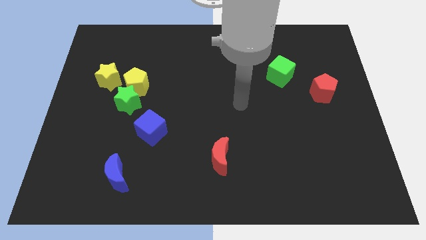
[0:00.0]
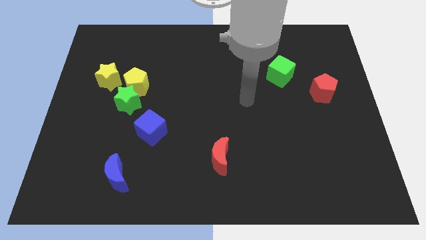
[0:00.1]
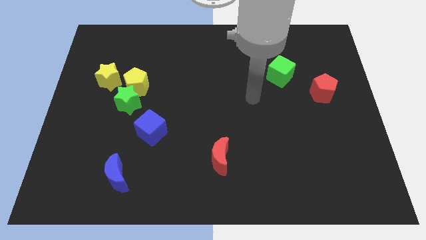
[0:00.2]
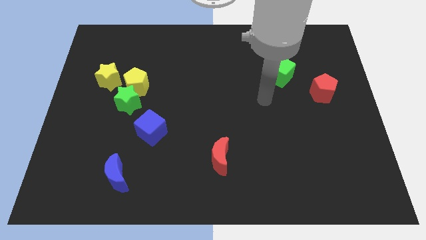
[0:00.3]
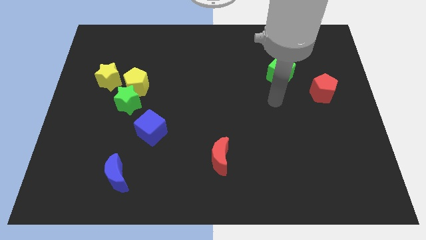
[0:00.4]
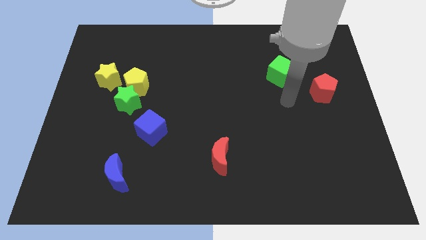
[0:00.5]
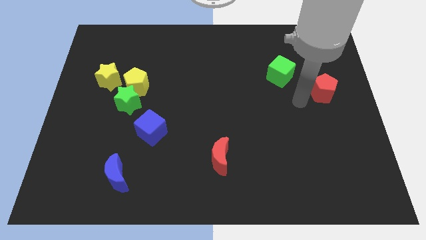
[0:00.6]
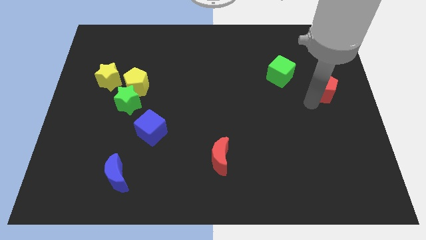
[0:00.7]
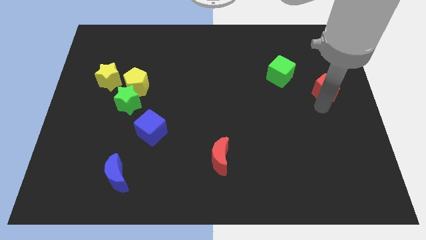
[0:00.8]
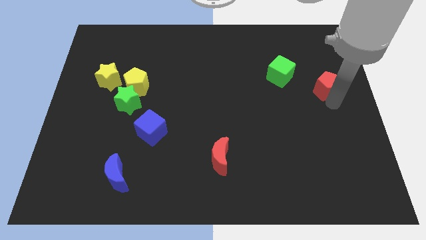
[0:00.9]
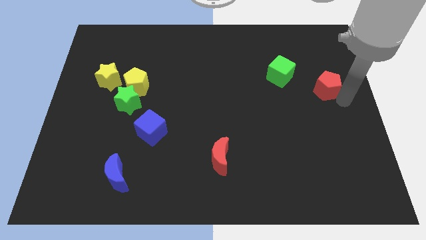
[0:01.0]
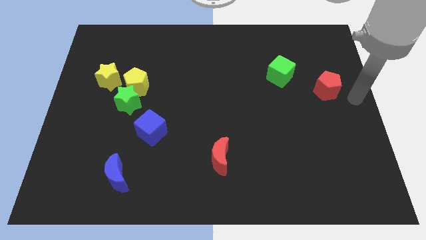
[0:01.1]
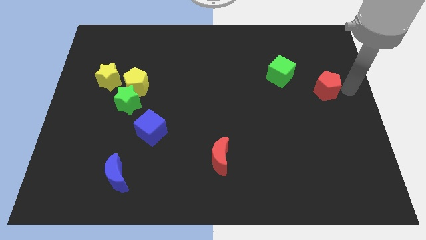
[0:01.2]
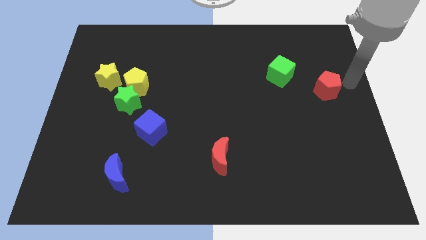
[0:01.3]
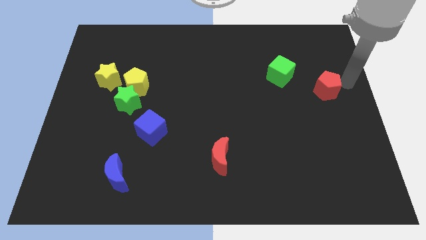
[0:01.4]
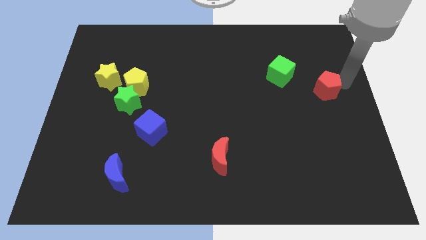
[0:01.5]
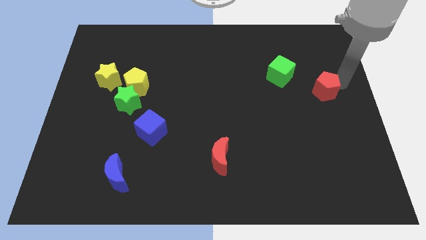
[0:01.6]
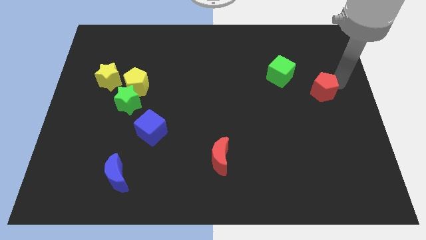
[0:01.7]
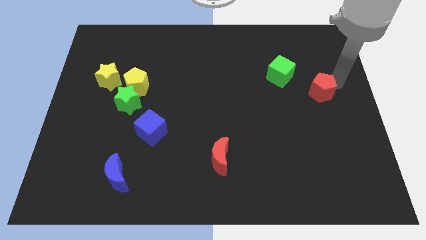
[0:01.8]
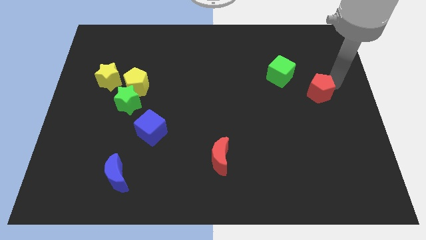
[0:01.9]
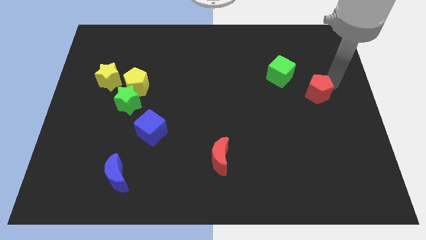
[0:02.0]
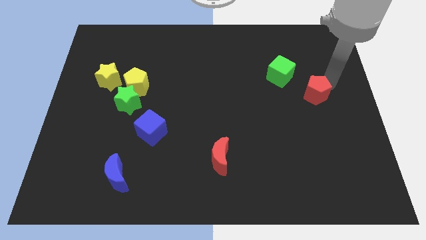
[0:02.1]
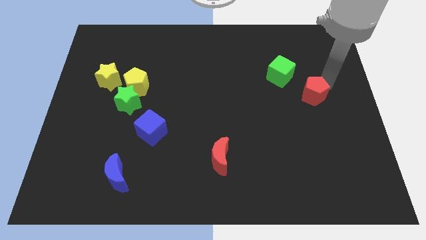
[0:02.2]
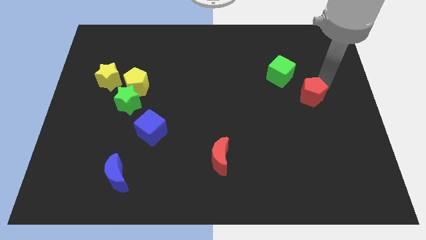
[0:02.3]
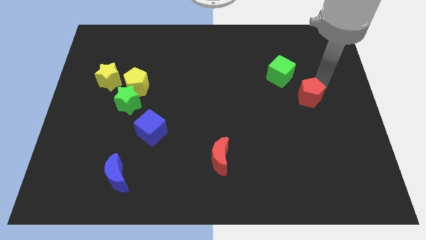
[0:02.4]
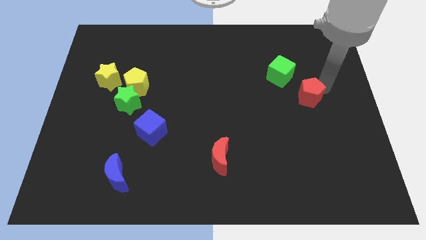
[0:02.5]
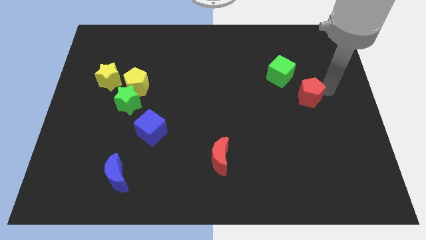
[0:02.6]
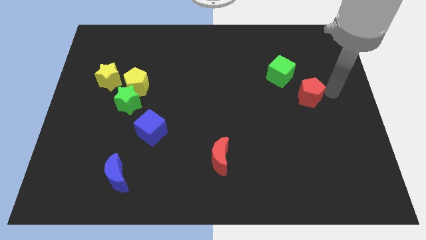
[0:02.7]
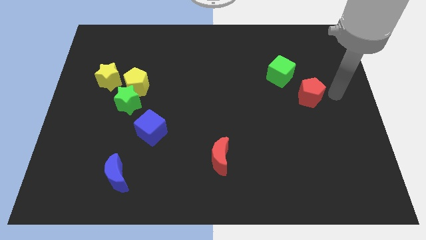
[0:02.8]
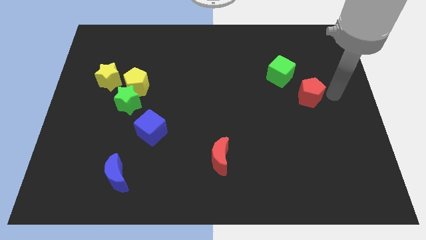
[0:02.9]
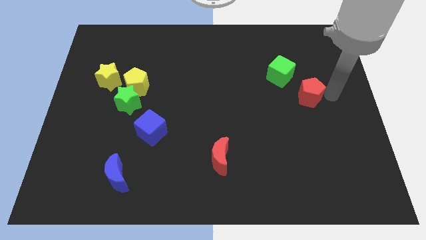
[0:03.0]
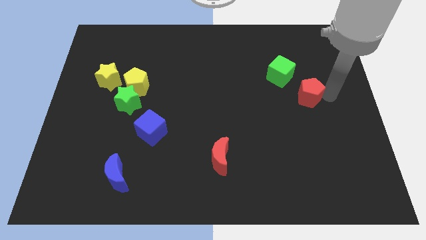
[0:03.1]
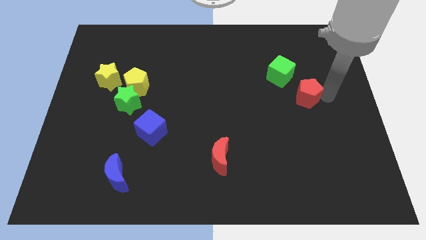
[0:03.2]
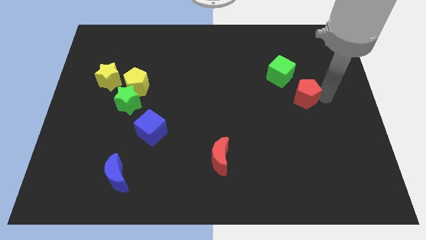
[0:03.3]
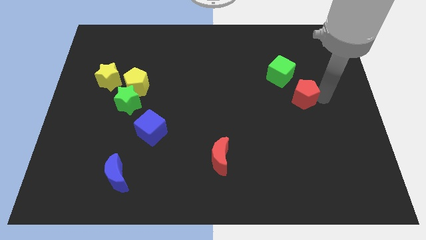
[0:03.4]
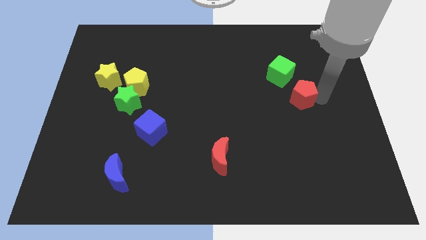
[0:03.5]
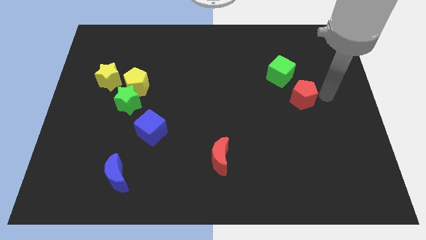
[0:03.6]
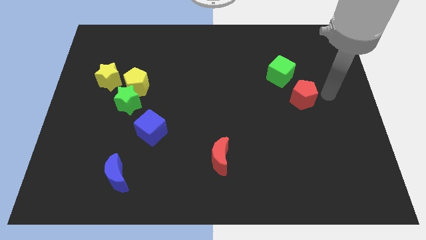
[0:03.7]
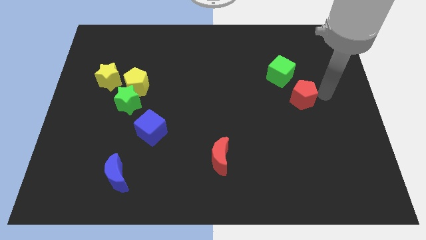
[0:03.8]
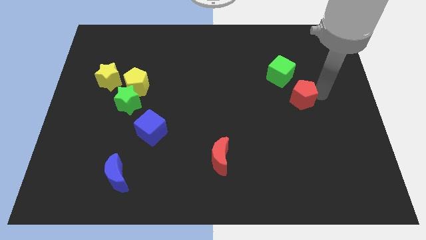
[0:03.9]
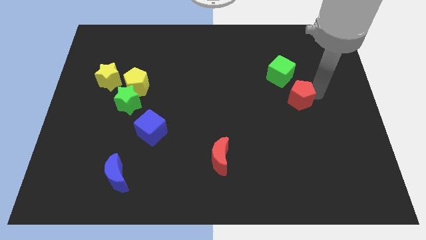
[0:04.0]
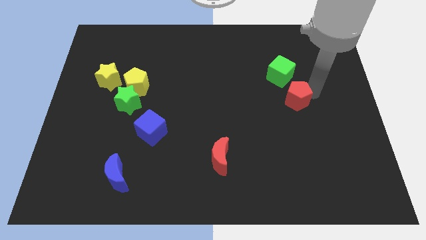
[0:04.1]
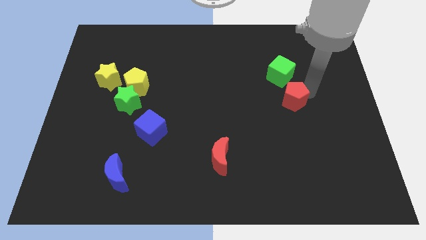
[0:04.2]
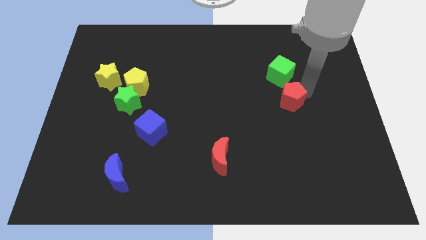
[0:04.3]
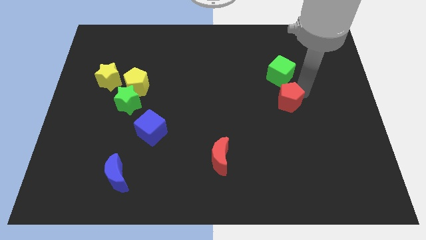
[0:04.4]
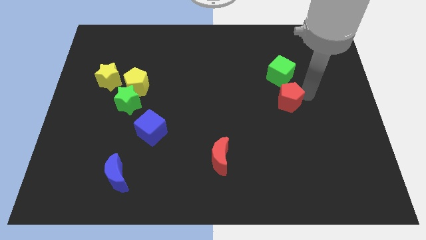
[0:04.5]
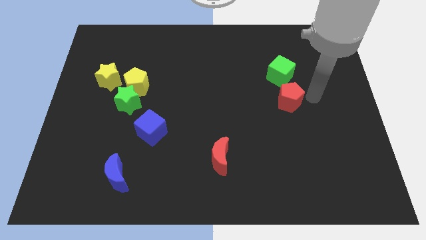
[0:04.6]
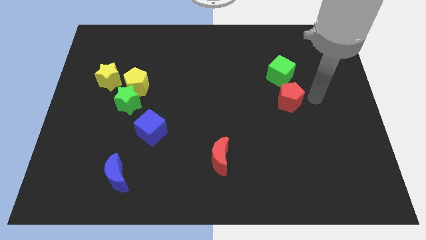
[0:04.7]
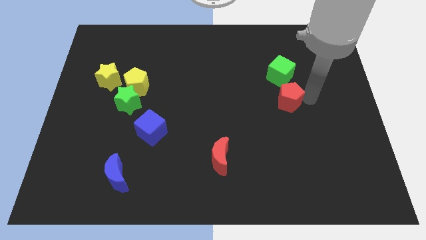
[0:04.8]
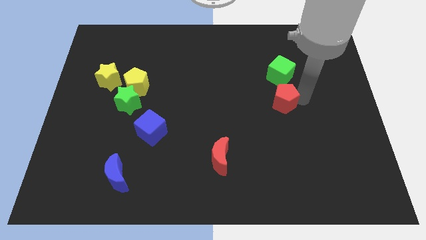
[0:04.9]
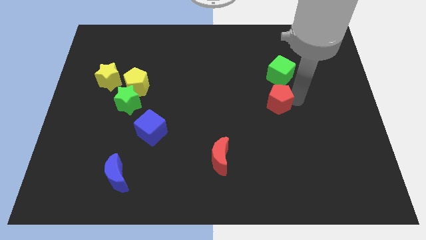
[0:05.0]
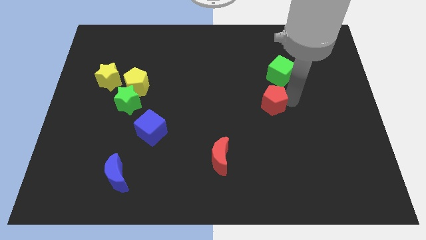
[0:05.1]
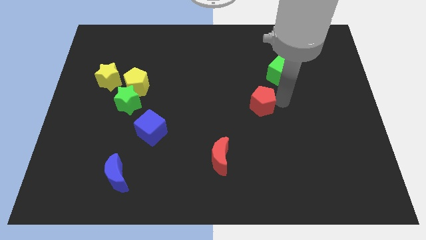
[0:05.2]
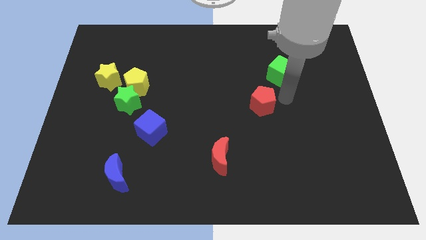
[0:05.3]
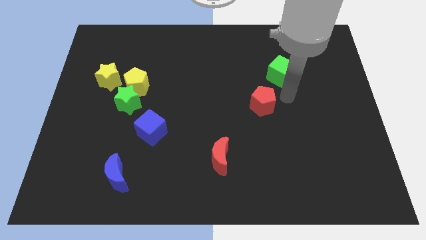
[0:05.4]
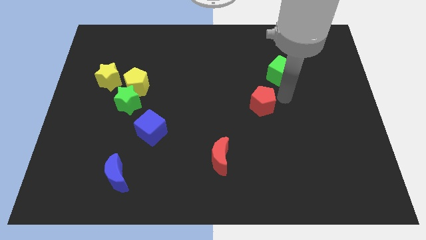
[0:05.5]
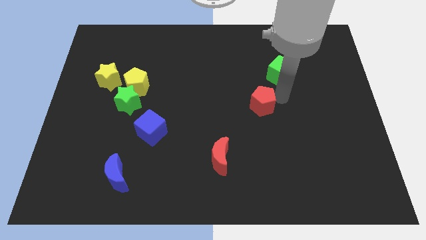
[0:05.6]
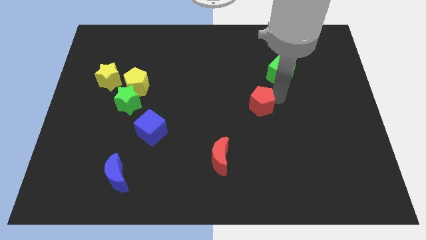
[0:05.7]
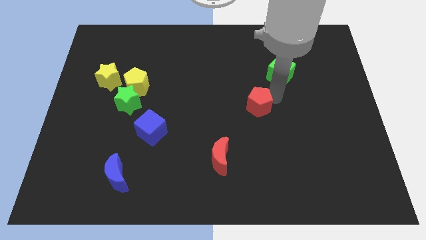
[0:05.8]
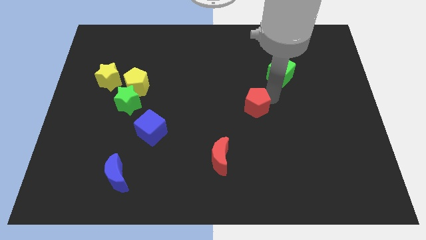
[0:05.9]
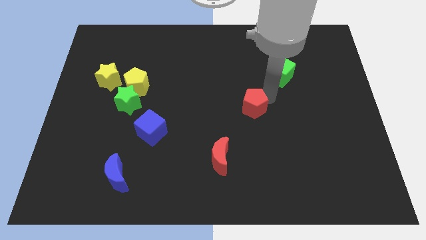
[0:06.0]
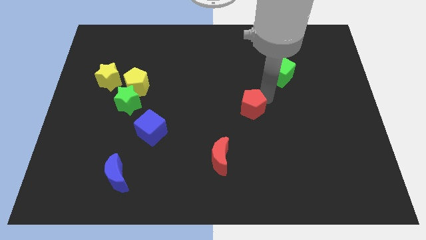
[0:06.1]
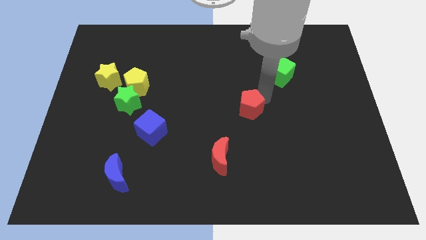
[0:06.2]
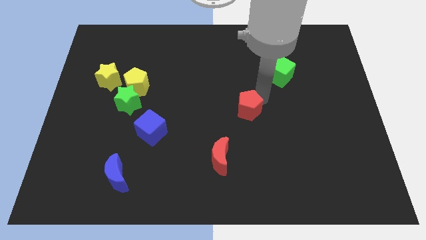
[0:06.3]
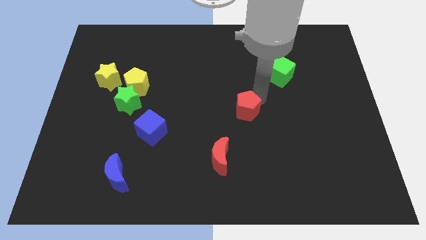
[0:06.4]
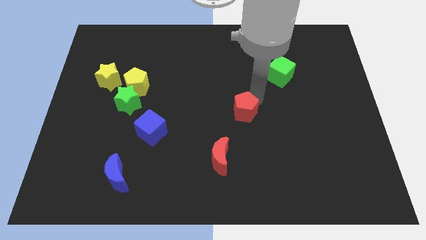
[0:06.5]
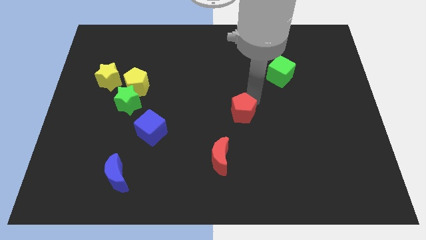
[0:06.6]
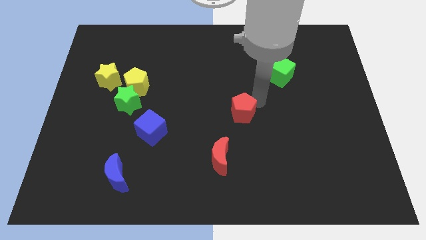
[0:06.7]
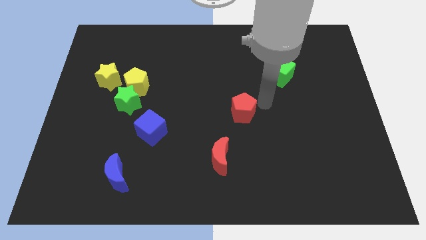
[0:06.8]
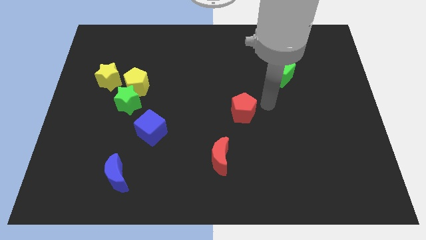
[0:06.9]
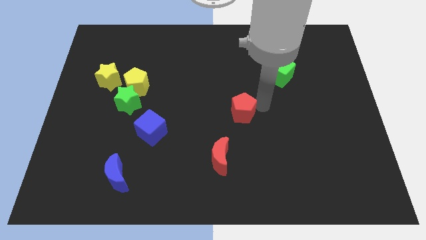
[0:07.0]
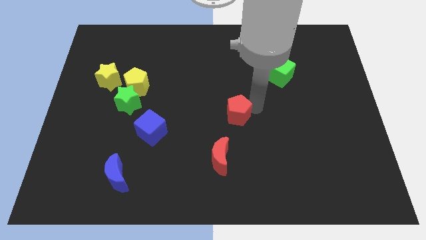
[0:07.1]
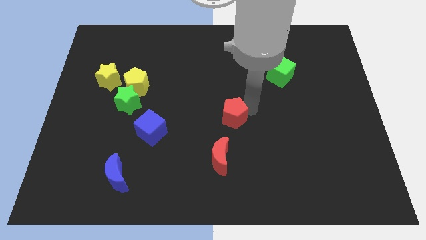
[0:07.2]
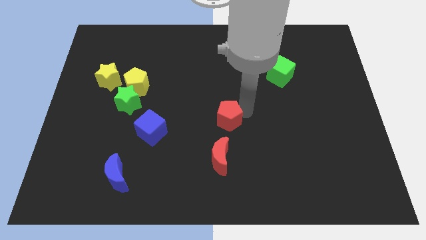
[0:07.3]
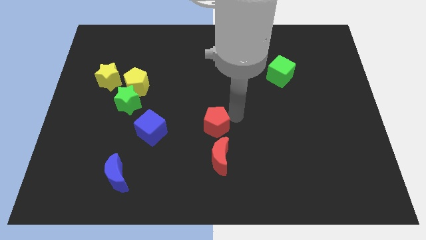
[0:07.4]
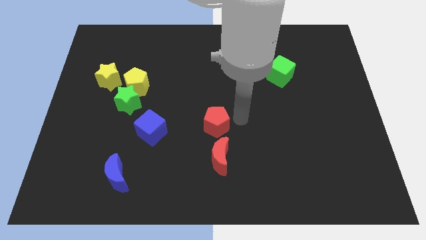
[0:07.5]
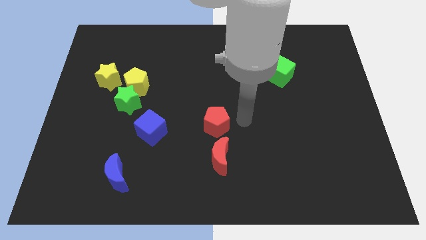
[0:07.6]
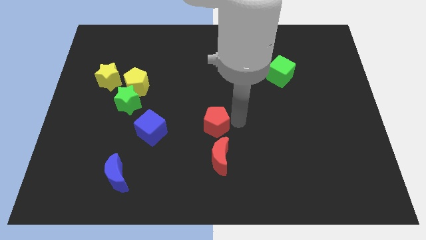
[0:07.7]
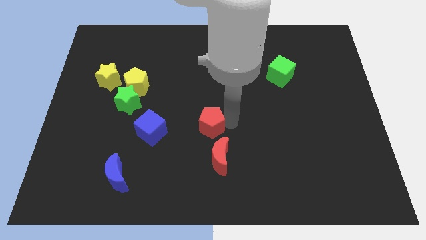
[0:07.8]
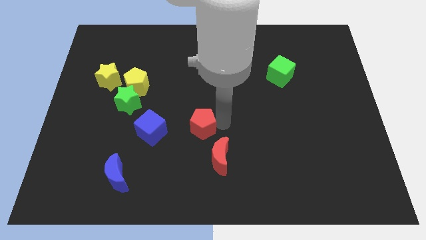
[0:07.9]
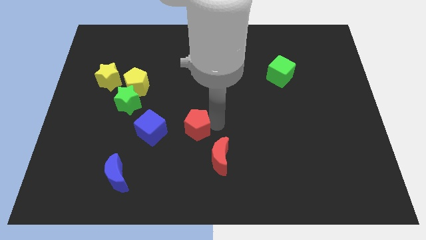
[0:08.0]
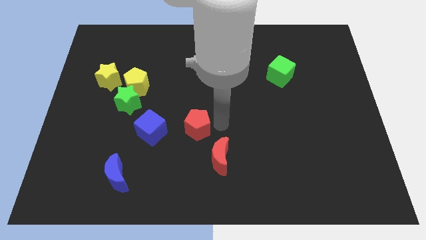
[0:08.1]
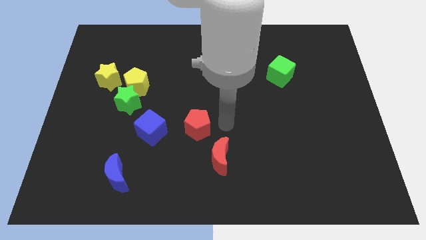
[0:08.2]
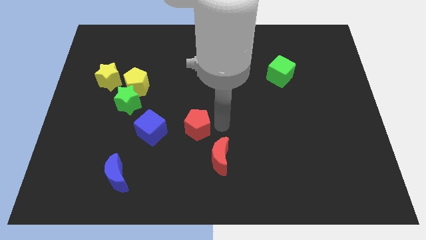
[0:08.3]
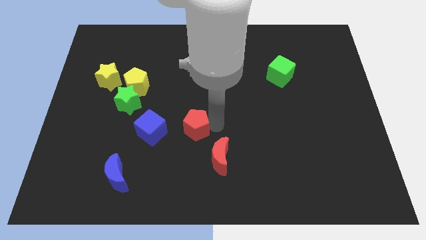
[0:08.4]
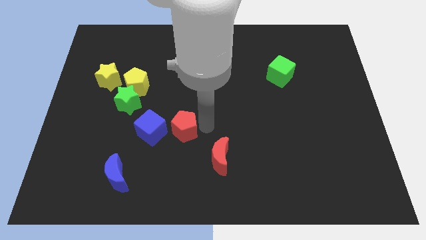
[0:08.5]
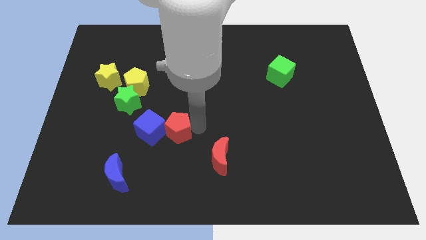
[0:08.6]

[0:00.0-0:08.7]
slide the red pentagon to the blue cube
